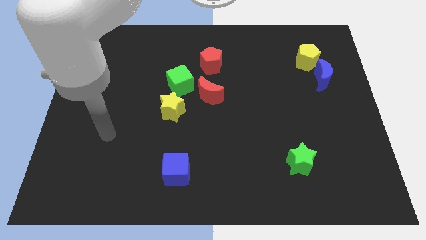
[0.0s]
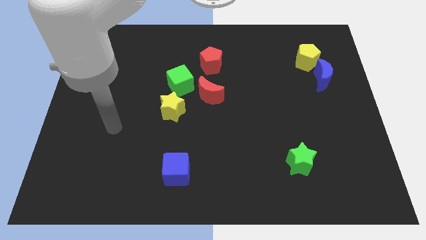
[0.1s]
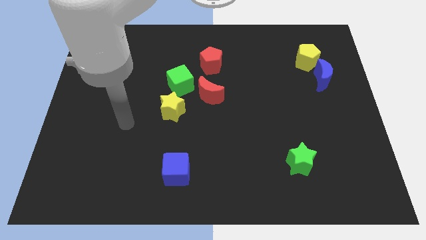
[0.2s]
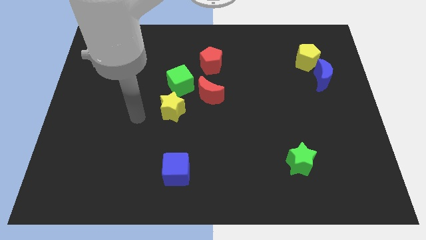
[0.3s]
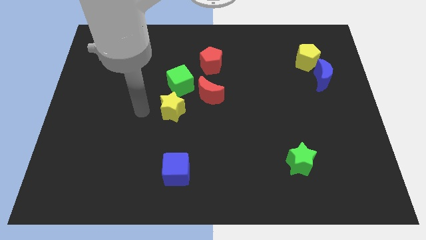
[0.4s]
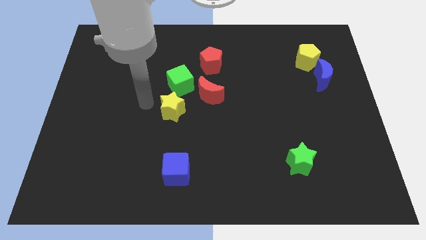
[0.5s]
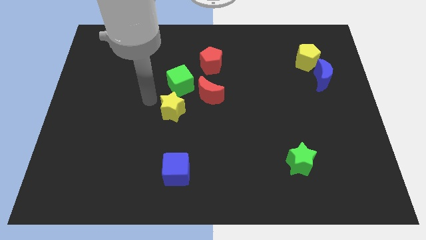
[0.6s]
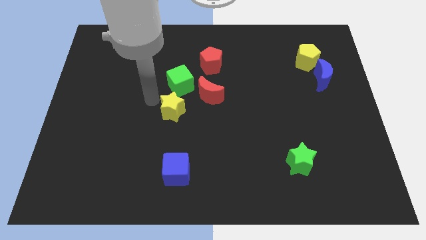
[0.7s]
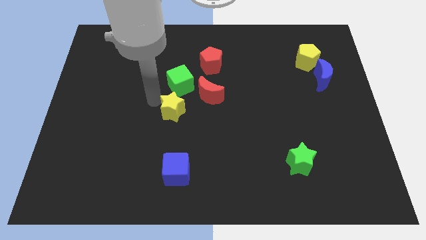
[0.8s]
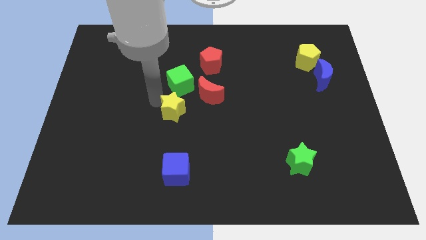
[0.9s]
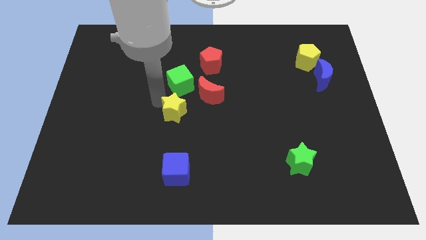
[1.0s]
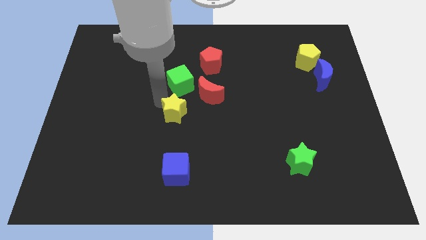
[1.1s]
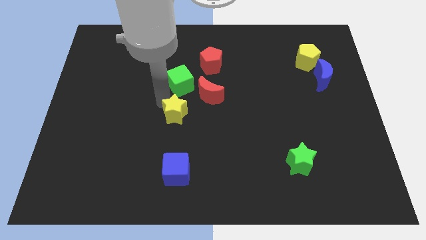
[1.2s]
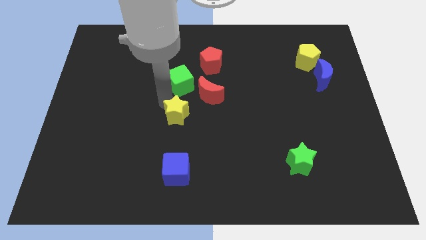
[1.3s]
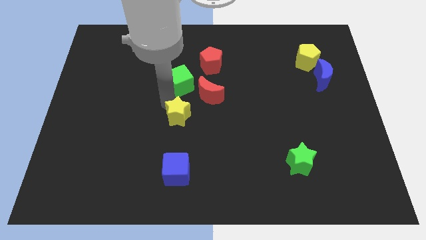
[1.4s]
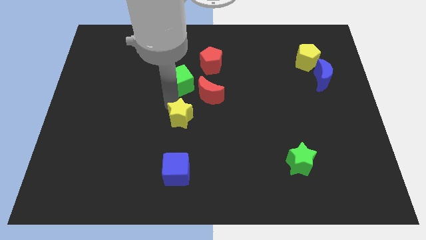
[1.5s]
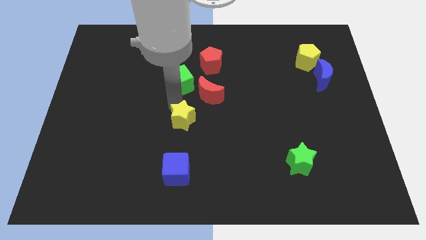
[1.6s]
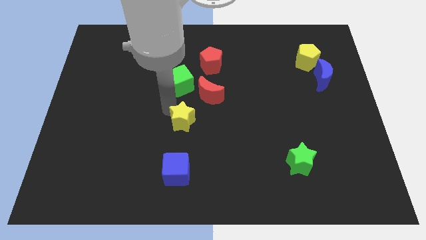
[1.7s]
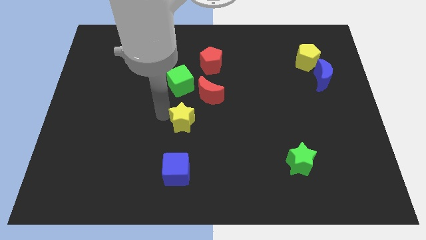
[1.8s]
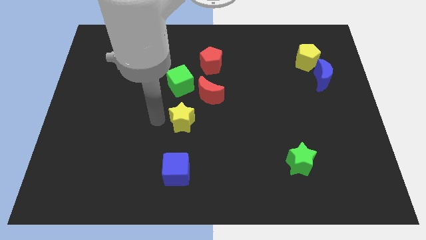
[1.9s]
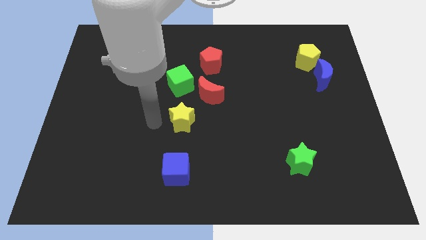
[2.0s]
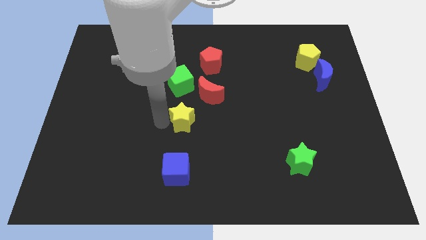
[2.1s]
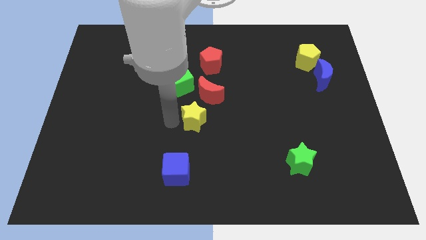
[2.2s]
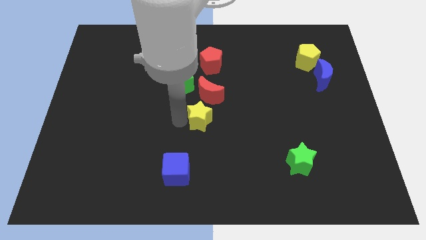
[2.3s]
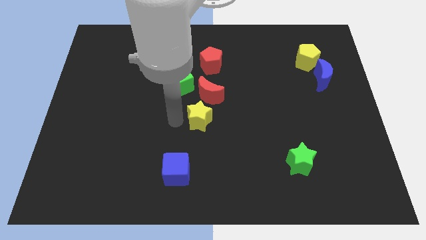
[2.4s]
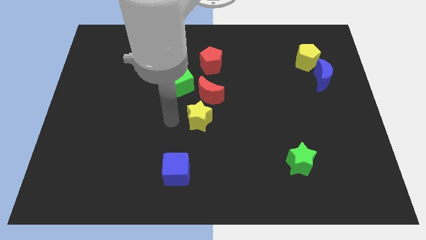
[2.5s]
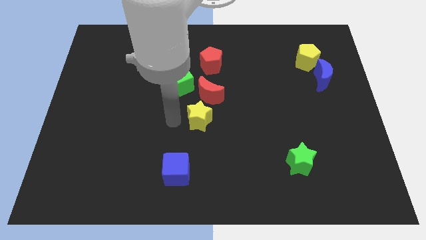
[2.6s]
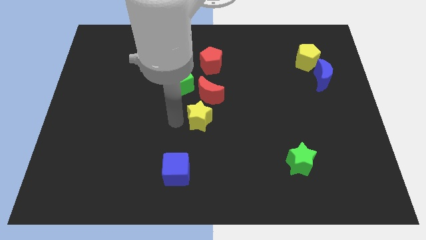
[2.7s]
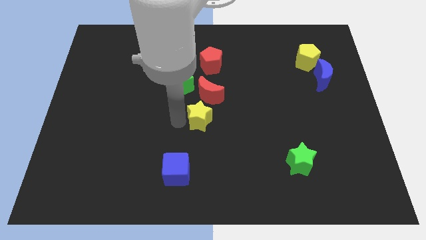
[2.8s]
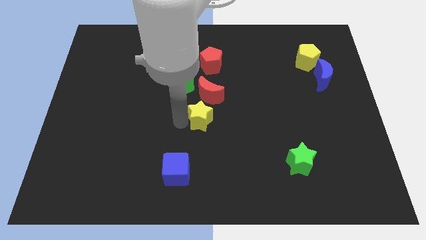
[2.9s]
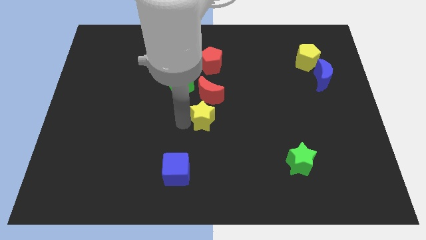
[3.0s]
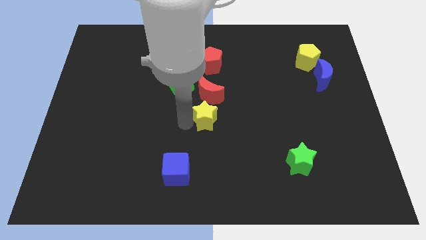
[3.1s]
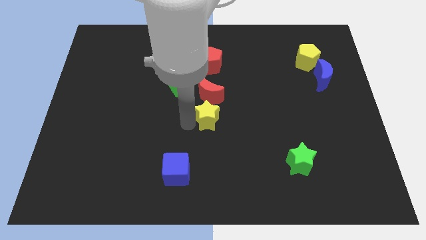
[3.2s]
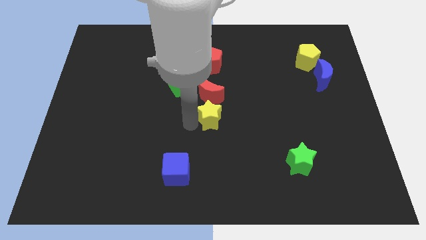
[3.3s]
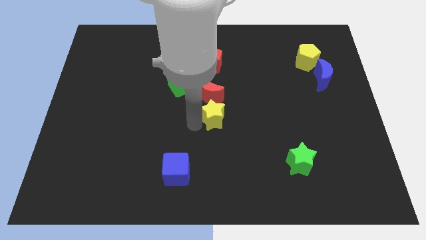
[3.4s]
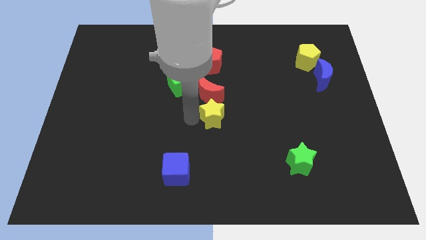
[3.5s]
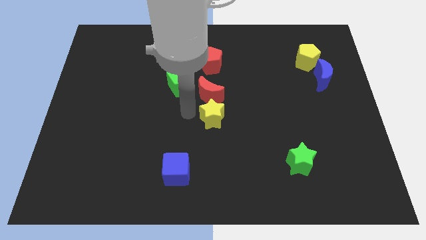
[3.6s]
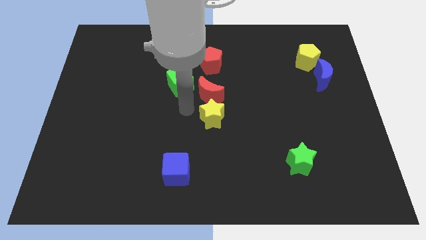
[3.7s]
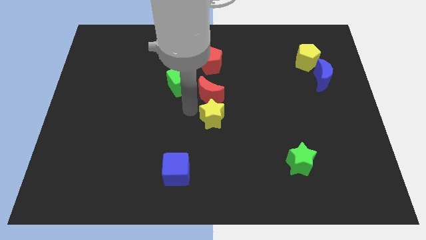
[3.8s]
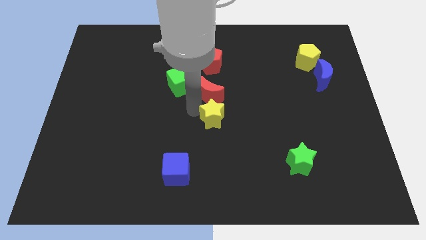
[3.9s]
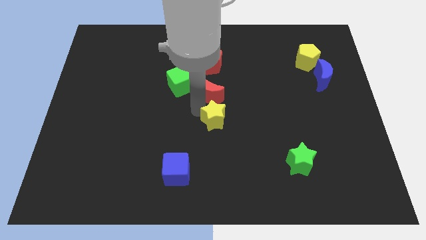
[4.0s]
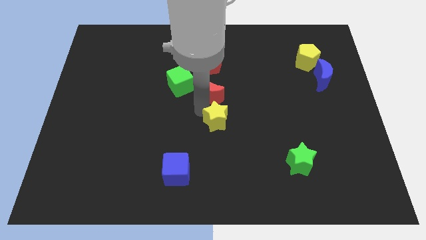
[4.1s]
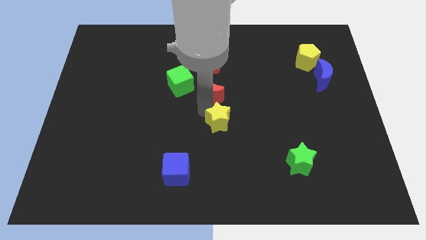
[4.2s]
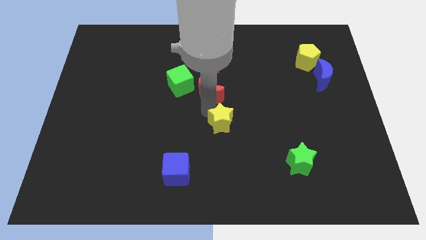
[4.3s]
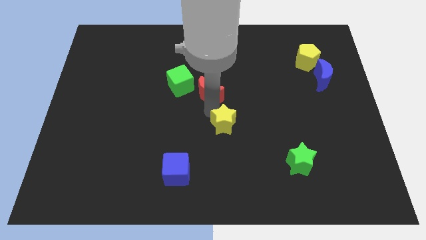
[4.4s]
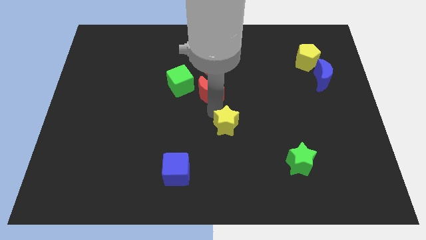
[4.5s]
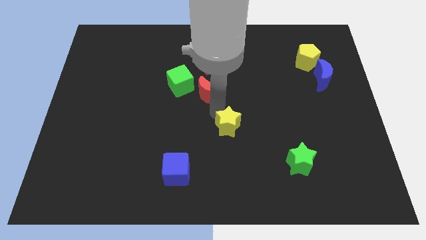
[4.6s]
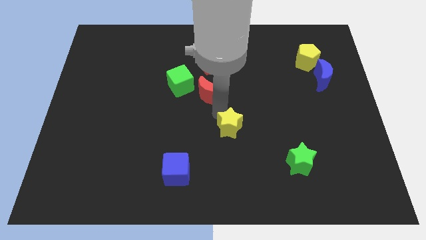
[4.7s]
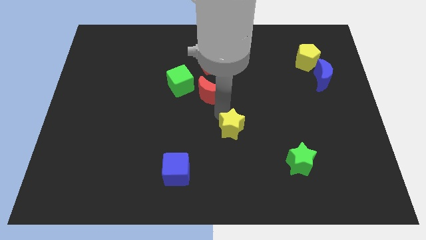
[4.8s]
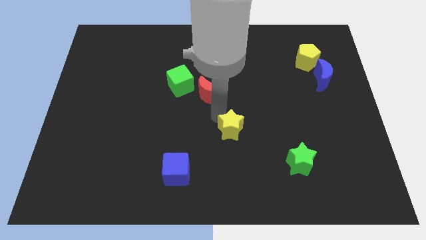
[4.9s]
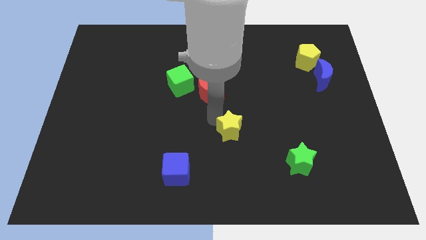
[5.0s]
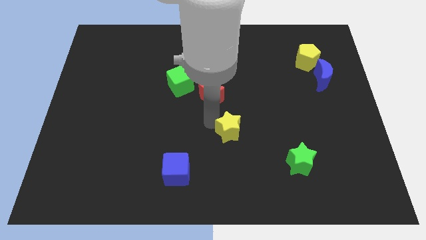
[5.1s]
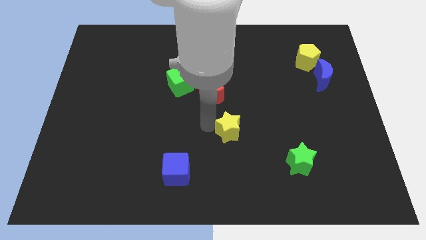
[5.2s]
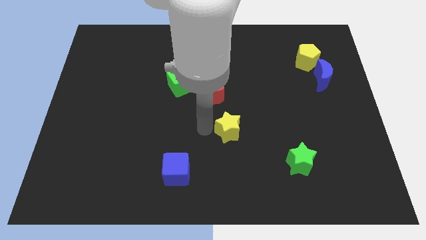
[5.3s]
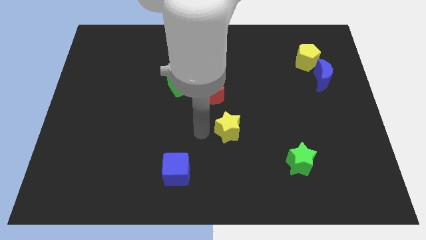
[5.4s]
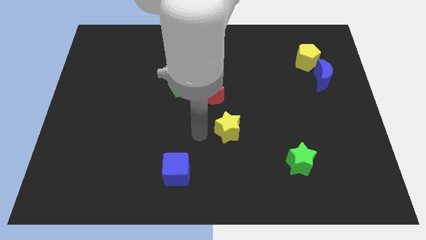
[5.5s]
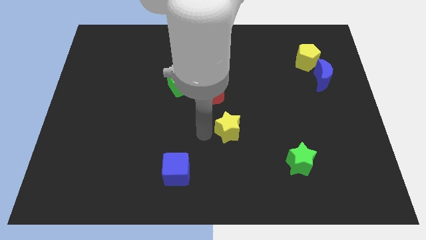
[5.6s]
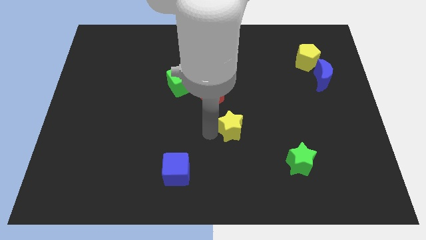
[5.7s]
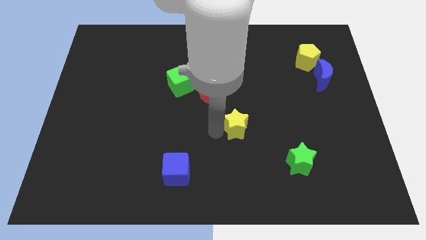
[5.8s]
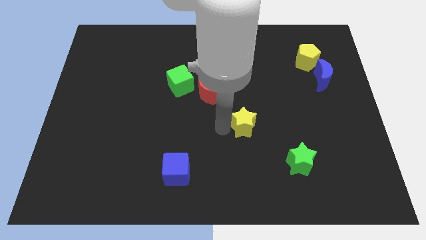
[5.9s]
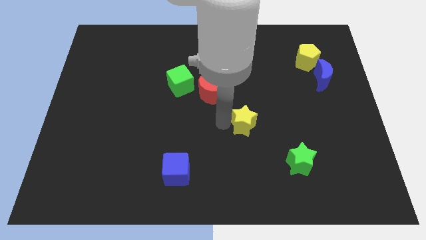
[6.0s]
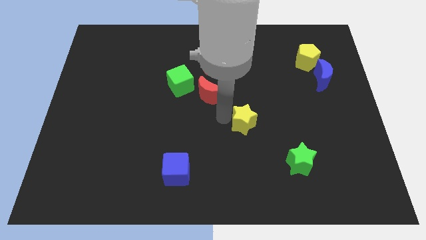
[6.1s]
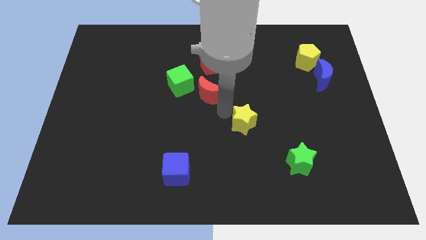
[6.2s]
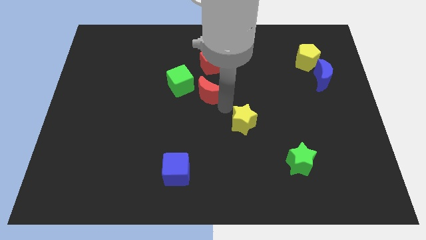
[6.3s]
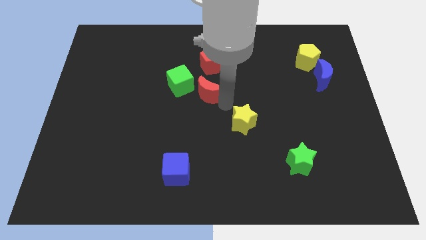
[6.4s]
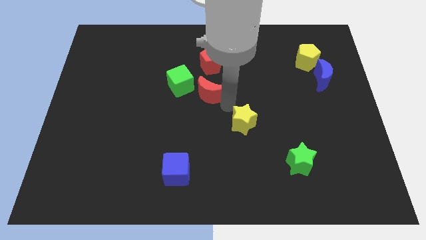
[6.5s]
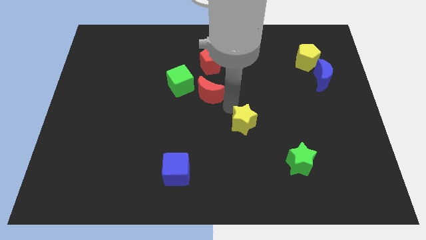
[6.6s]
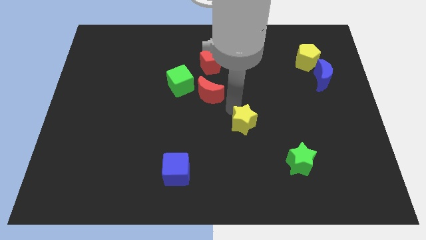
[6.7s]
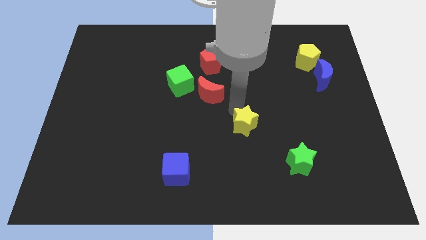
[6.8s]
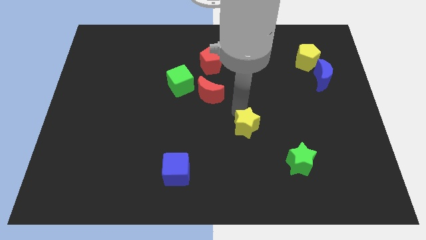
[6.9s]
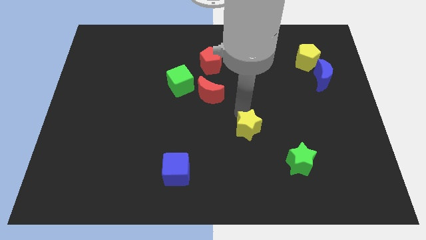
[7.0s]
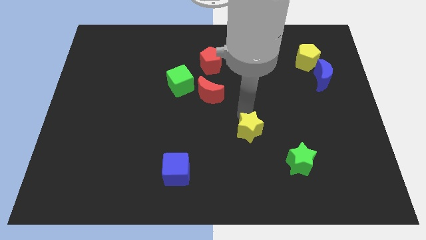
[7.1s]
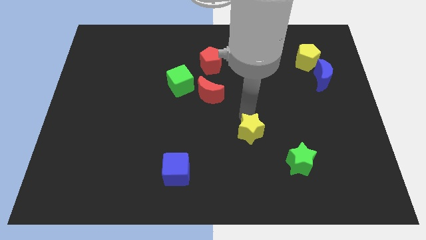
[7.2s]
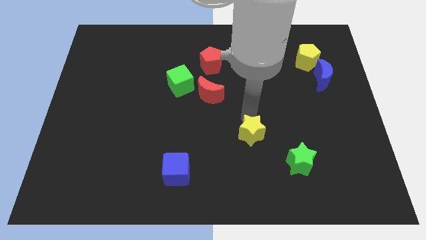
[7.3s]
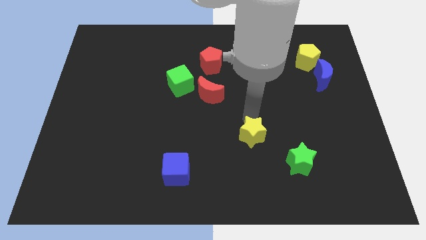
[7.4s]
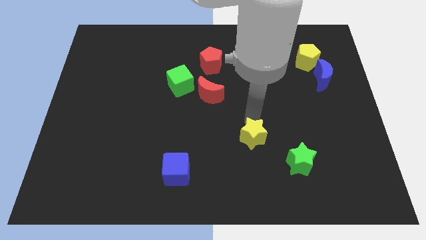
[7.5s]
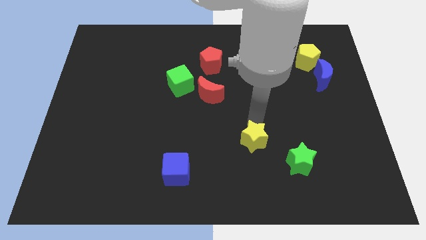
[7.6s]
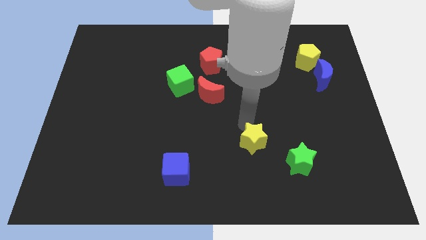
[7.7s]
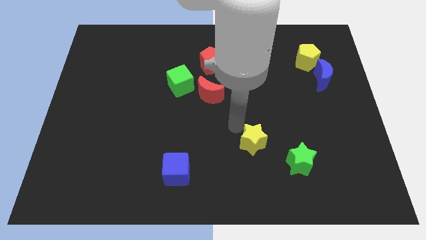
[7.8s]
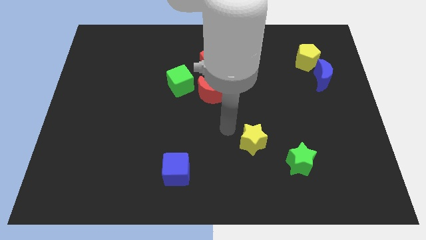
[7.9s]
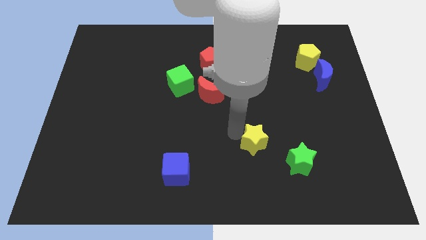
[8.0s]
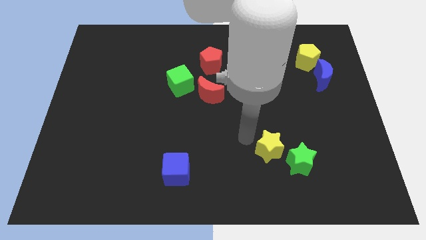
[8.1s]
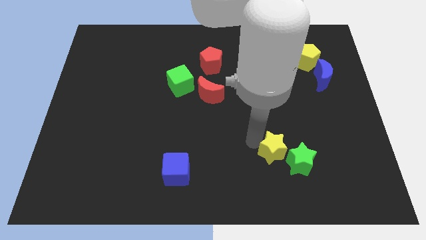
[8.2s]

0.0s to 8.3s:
slide the yellow star towards the green star
